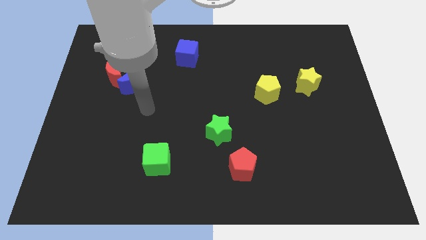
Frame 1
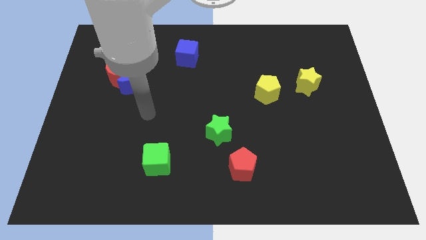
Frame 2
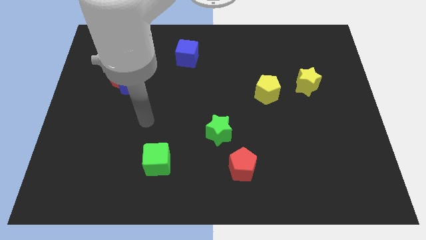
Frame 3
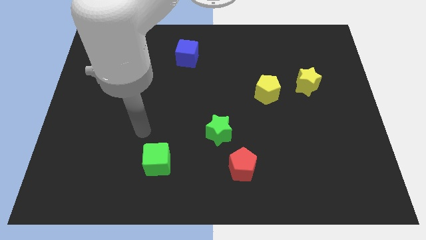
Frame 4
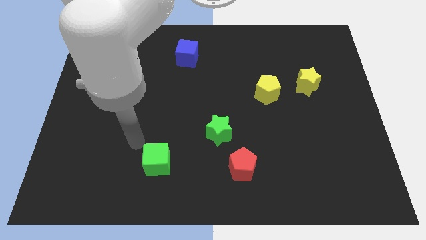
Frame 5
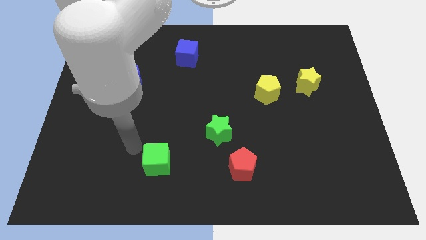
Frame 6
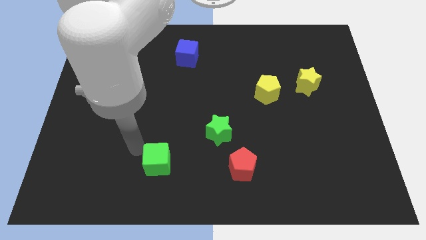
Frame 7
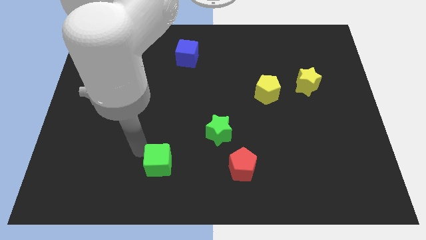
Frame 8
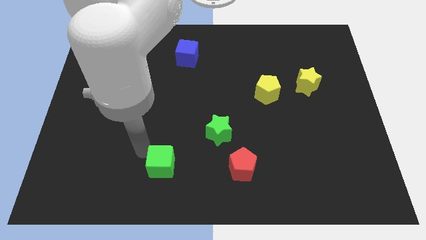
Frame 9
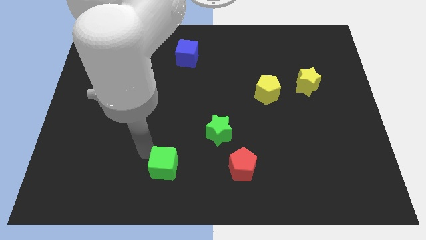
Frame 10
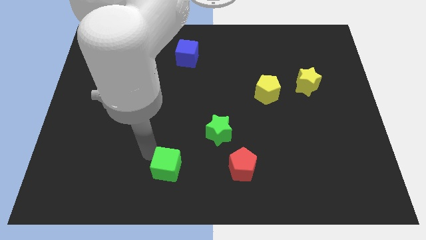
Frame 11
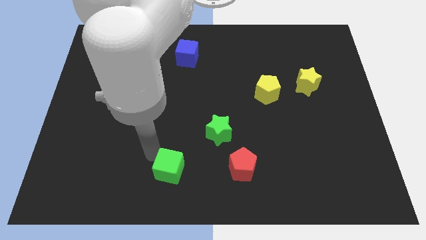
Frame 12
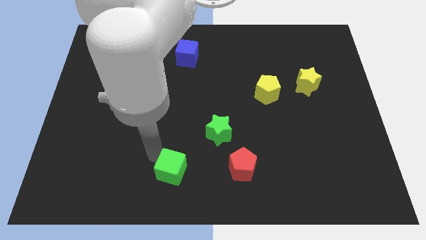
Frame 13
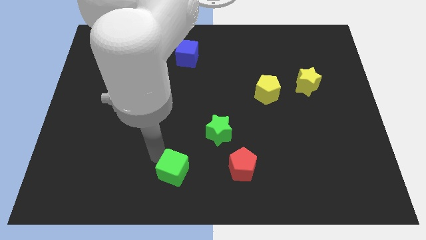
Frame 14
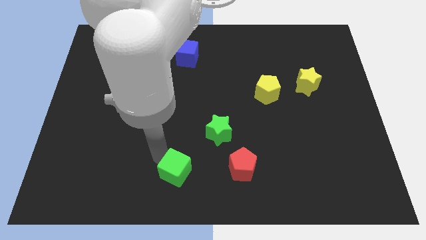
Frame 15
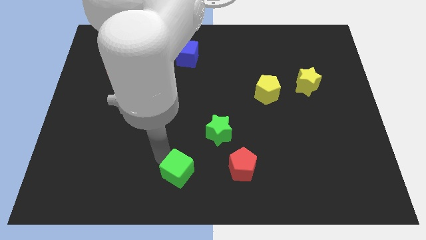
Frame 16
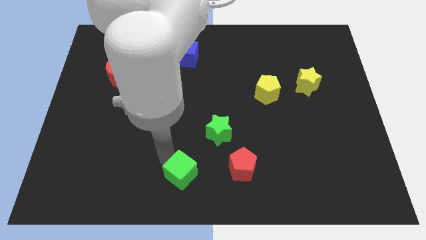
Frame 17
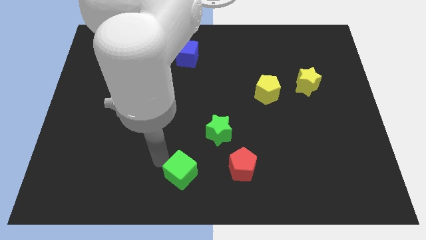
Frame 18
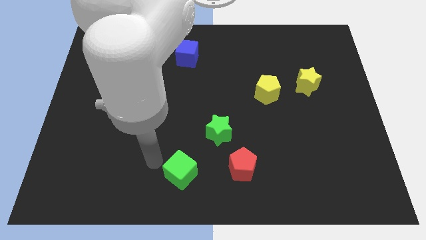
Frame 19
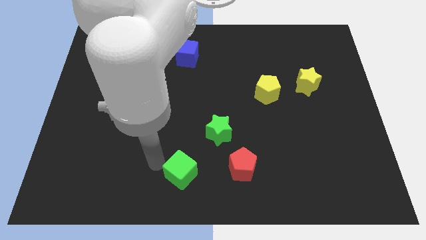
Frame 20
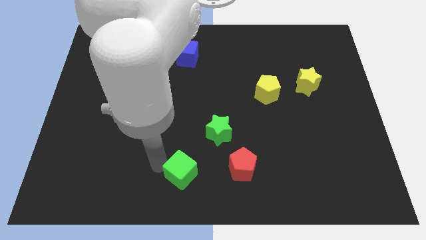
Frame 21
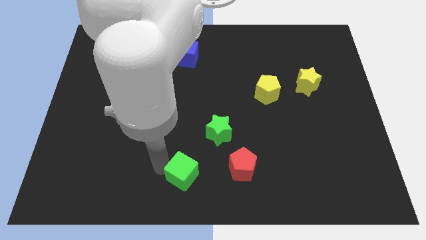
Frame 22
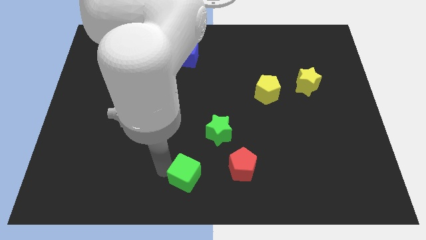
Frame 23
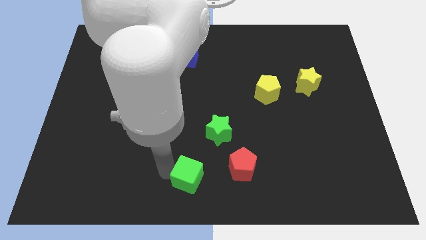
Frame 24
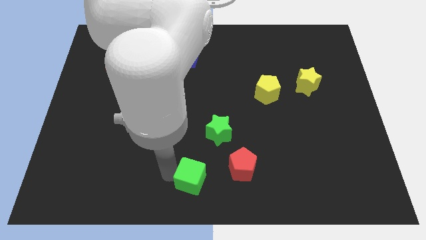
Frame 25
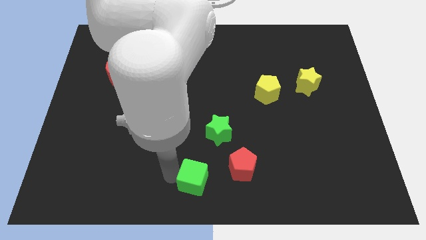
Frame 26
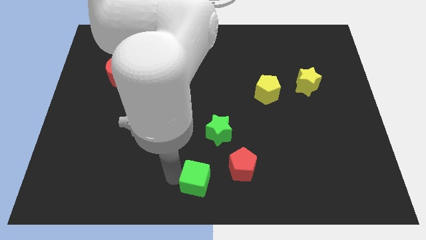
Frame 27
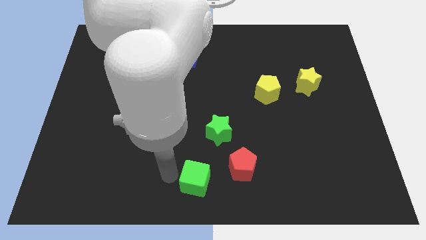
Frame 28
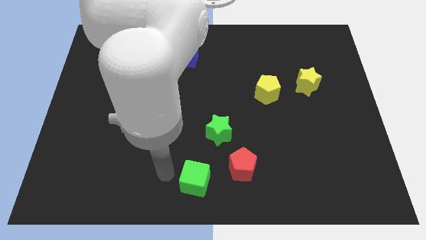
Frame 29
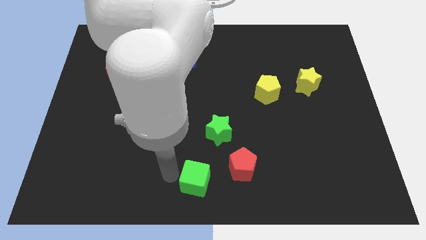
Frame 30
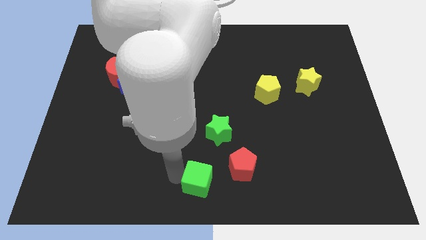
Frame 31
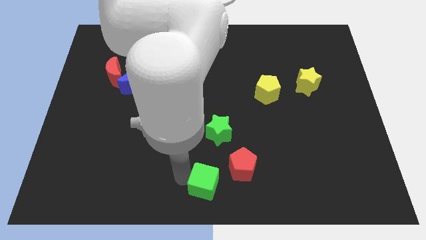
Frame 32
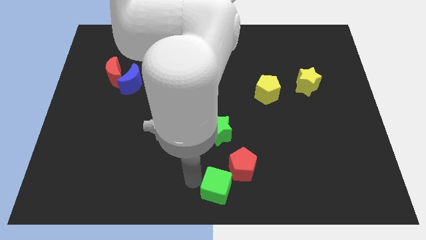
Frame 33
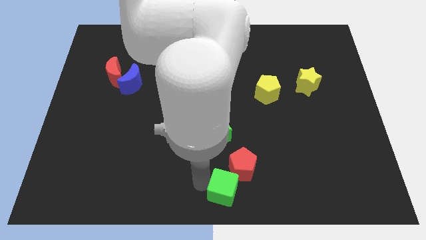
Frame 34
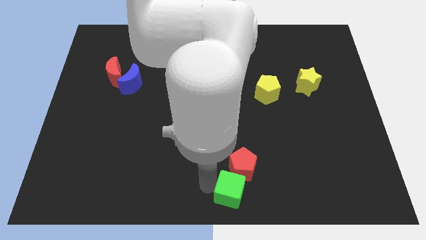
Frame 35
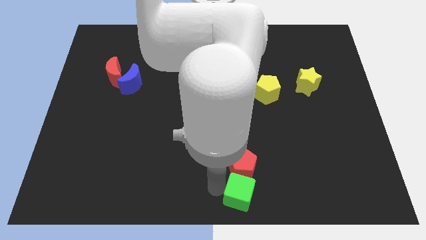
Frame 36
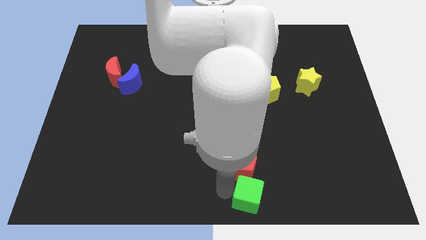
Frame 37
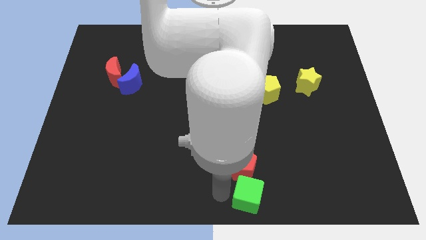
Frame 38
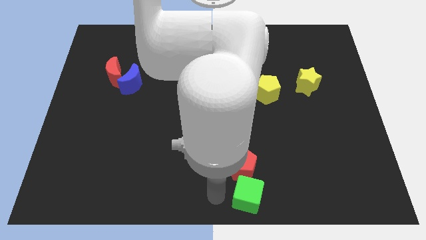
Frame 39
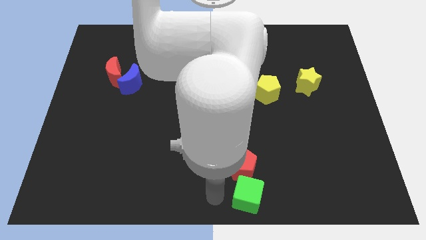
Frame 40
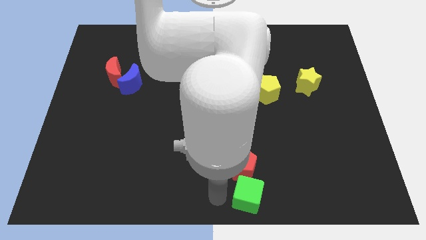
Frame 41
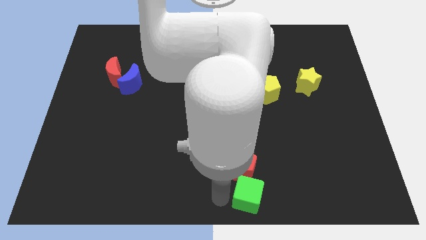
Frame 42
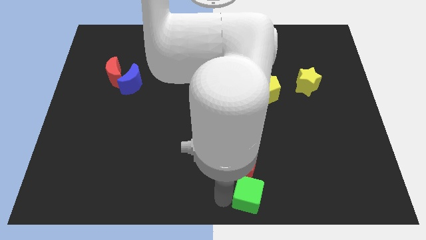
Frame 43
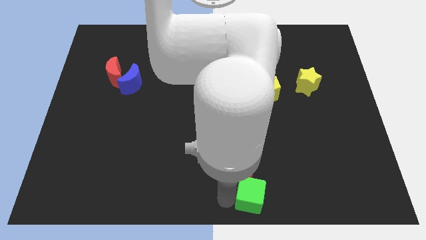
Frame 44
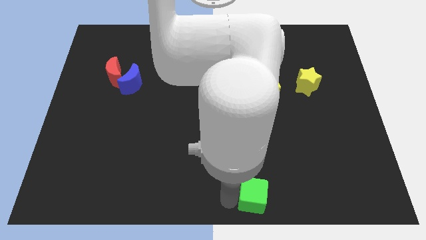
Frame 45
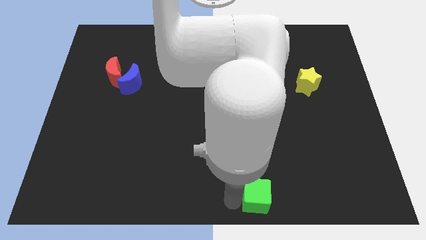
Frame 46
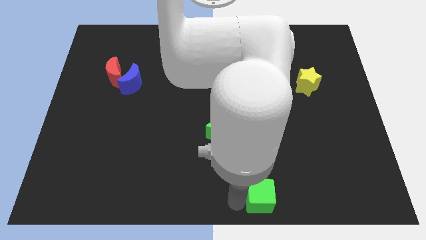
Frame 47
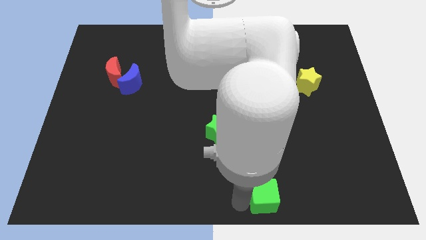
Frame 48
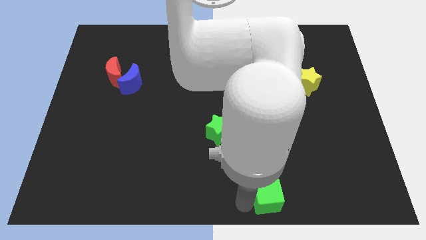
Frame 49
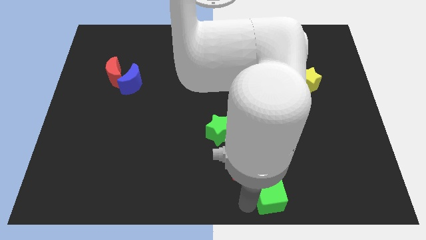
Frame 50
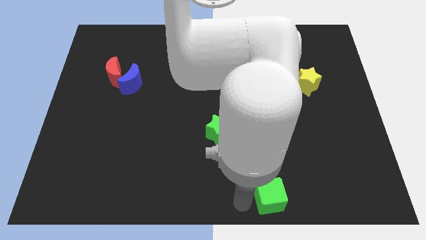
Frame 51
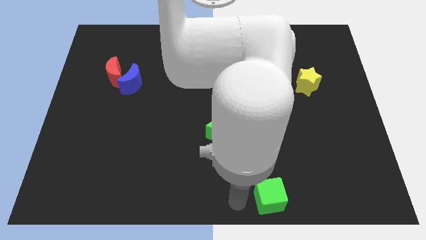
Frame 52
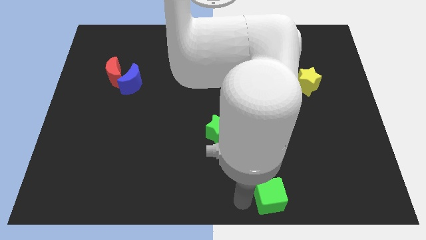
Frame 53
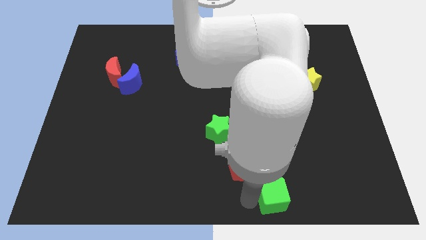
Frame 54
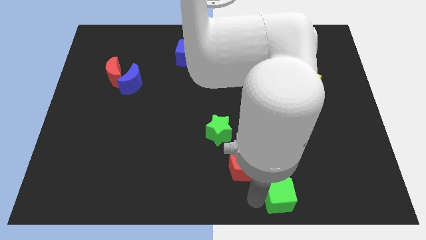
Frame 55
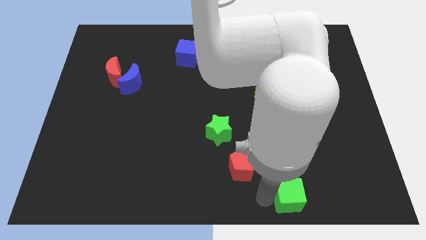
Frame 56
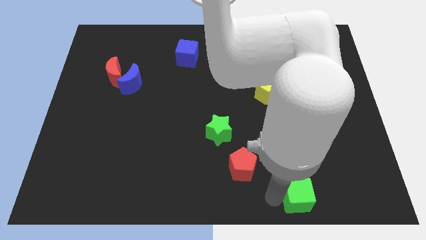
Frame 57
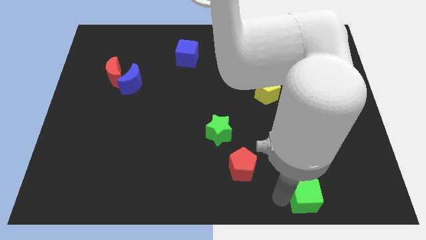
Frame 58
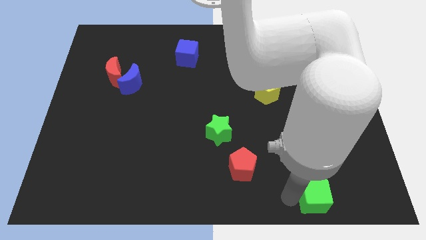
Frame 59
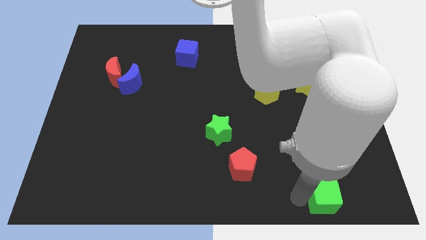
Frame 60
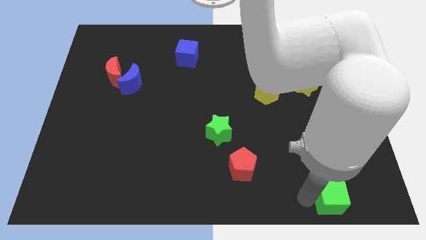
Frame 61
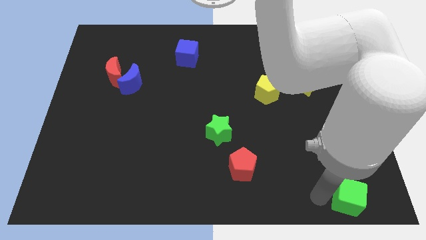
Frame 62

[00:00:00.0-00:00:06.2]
slide the green cube to the bottom right

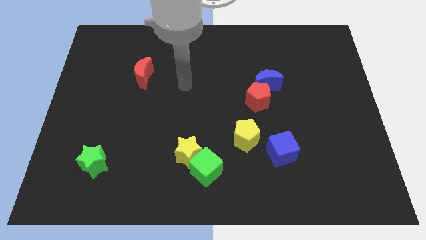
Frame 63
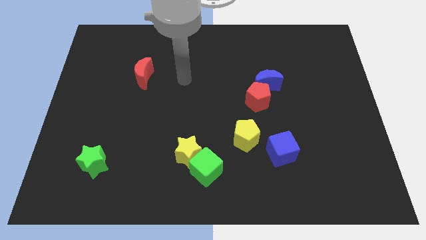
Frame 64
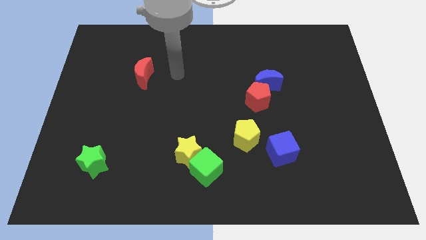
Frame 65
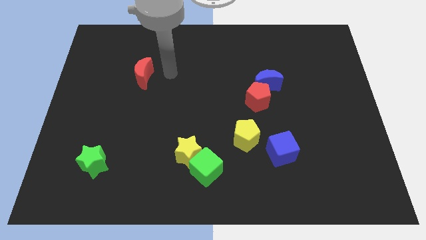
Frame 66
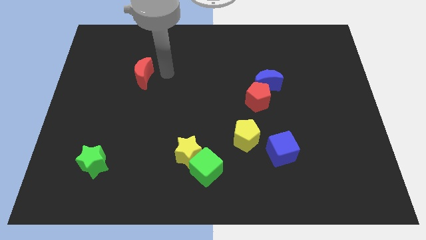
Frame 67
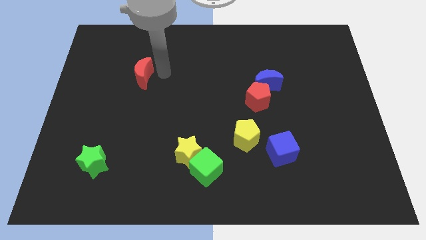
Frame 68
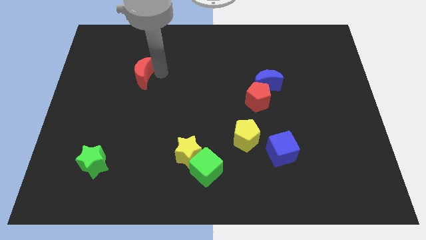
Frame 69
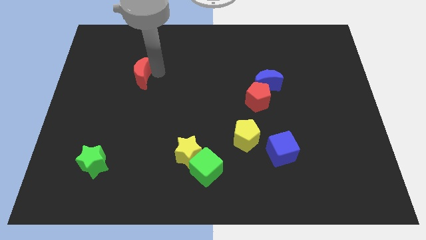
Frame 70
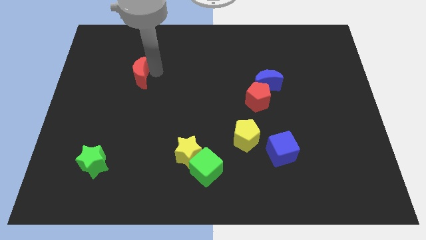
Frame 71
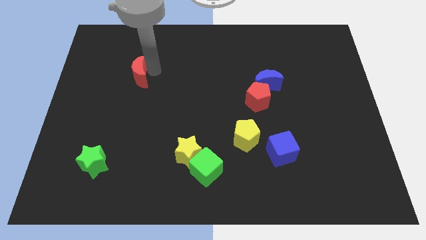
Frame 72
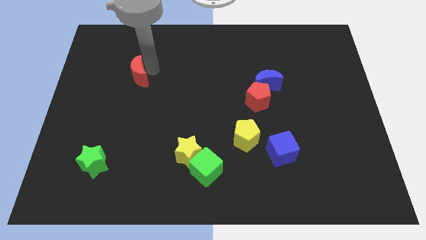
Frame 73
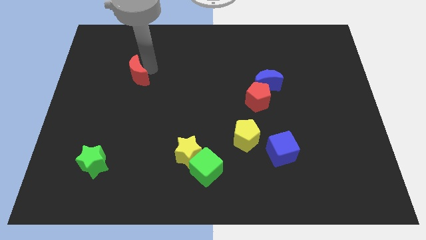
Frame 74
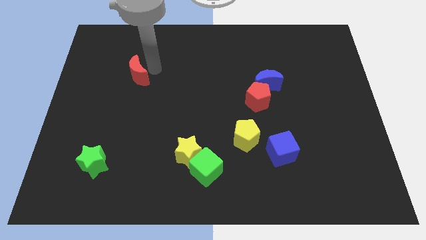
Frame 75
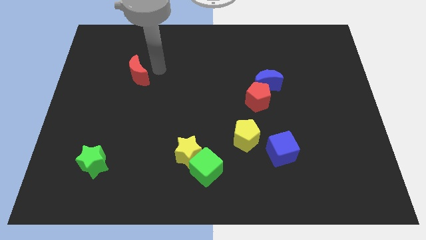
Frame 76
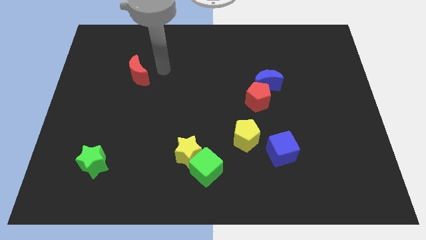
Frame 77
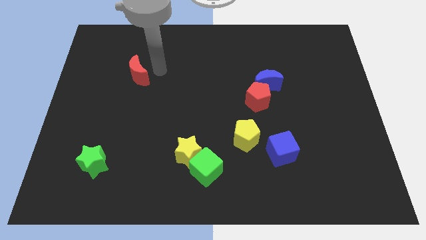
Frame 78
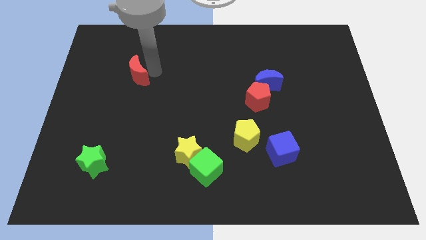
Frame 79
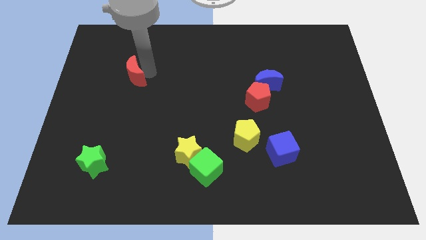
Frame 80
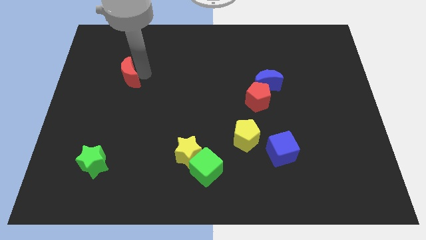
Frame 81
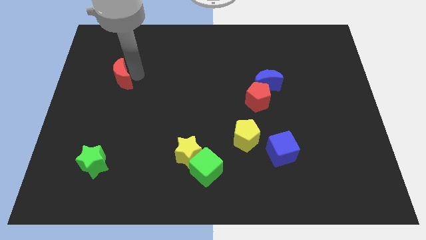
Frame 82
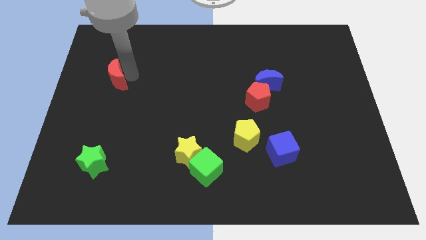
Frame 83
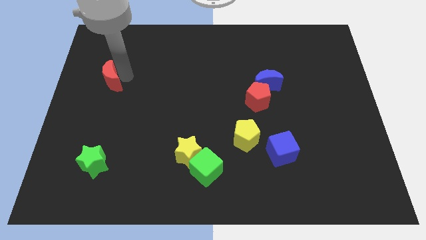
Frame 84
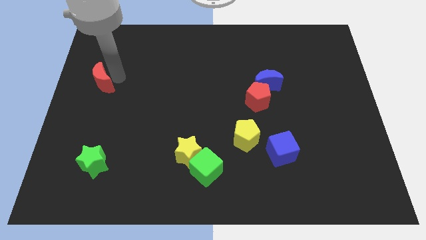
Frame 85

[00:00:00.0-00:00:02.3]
push the red moon to the left side of the board
